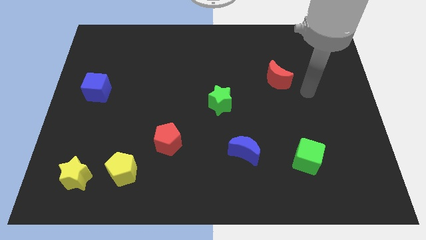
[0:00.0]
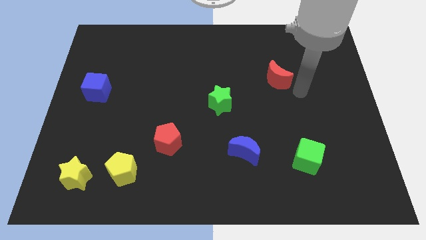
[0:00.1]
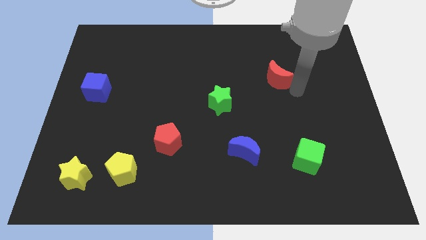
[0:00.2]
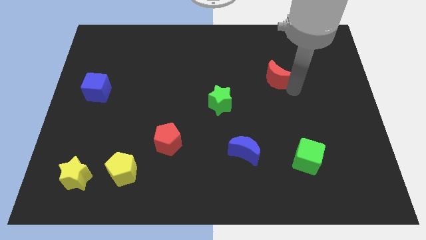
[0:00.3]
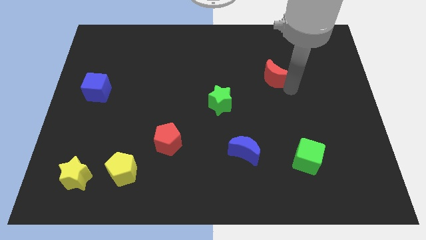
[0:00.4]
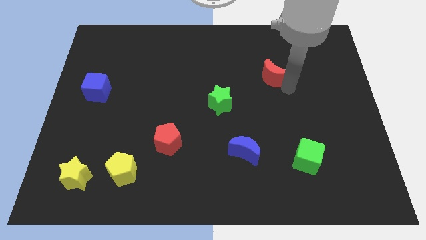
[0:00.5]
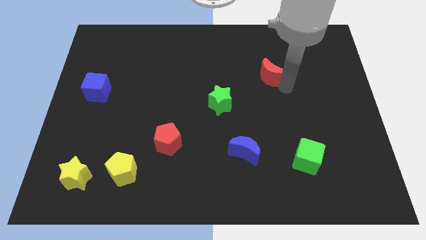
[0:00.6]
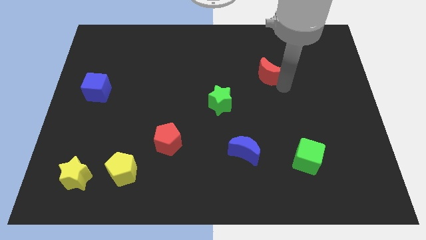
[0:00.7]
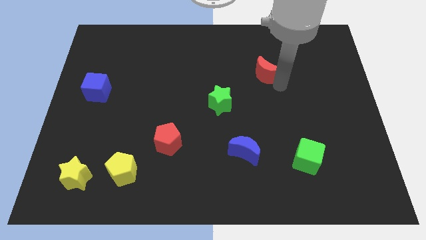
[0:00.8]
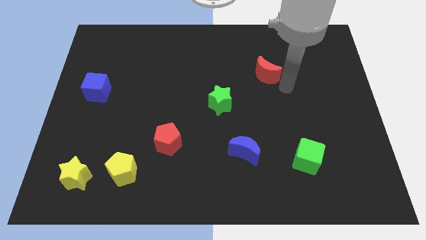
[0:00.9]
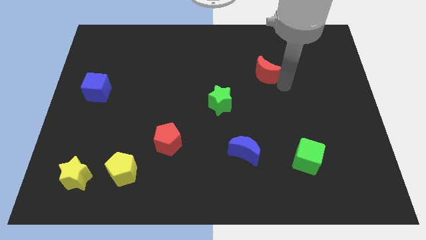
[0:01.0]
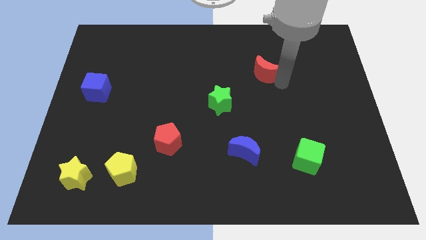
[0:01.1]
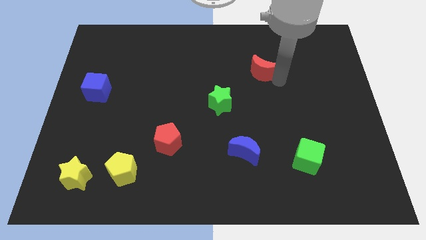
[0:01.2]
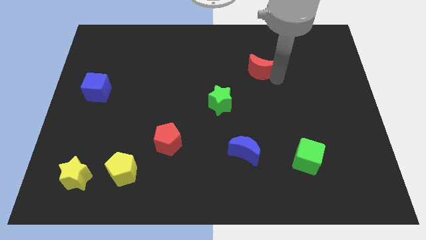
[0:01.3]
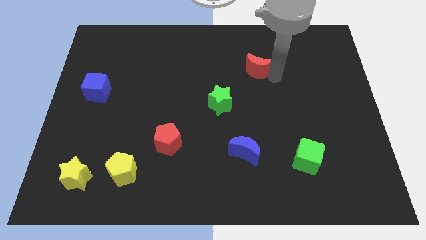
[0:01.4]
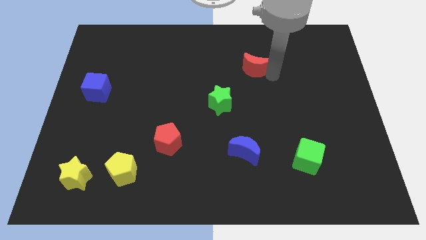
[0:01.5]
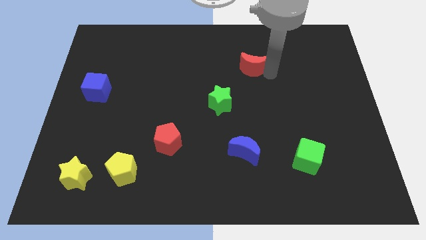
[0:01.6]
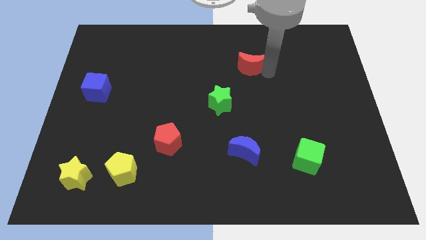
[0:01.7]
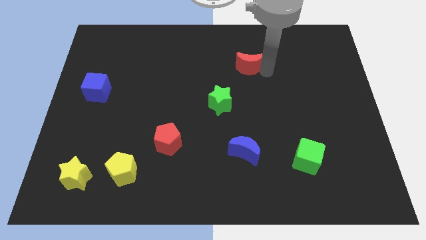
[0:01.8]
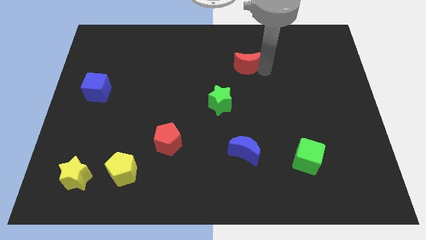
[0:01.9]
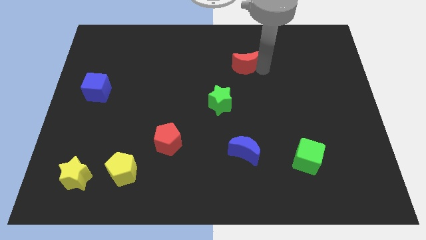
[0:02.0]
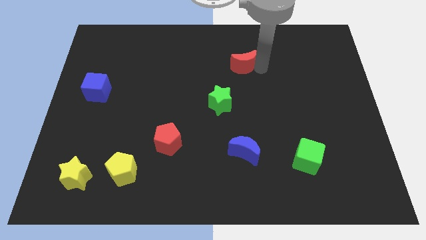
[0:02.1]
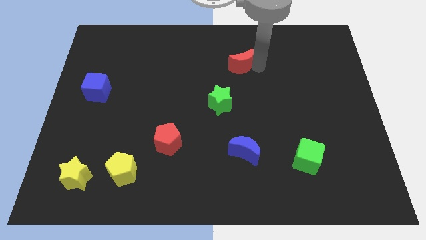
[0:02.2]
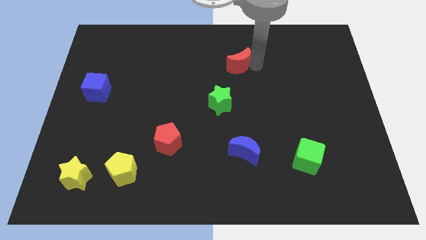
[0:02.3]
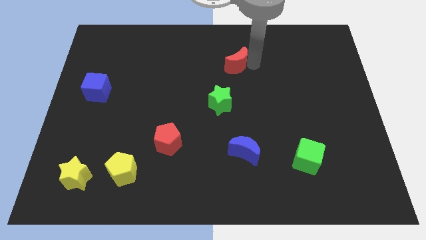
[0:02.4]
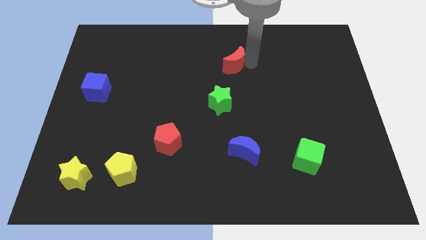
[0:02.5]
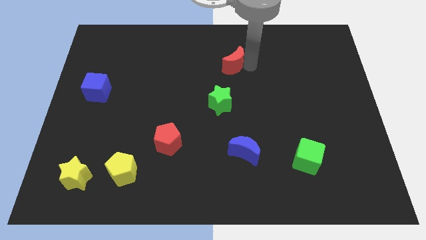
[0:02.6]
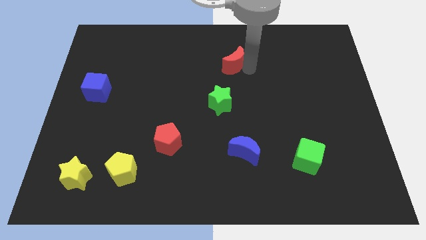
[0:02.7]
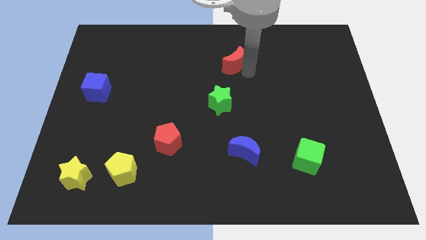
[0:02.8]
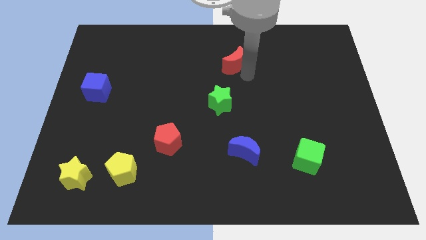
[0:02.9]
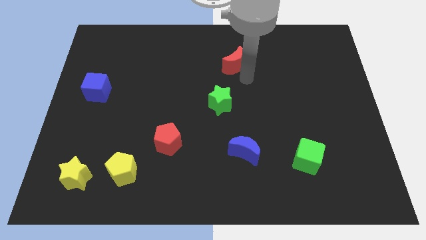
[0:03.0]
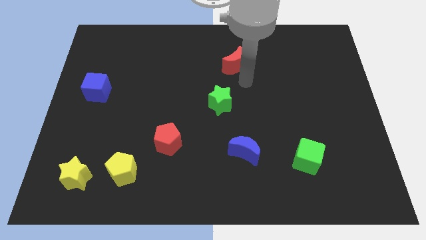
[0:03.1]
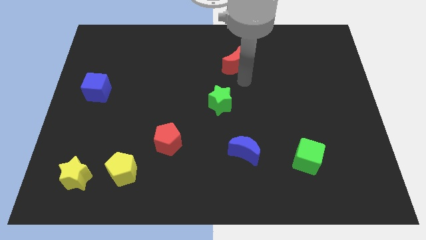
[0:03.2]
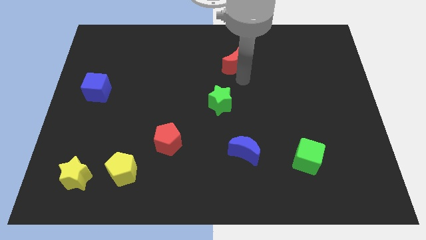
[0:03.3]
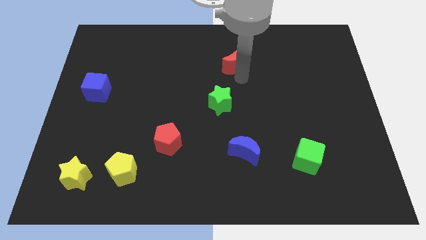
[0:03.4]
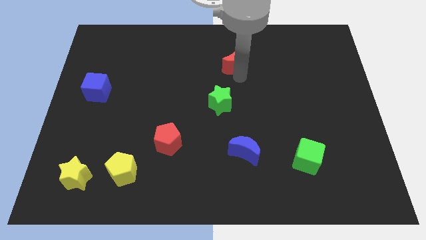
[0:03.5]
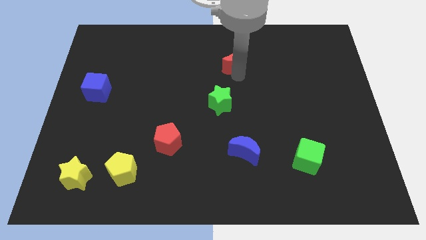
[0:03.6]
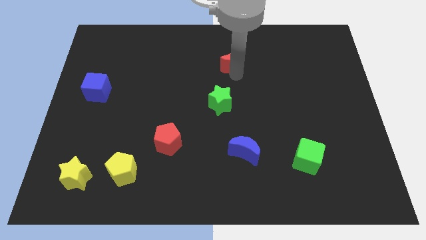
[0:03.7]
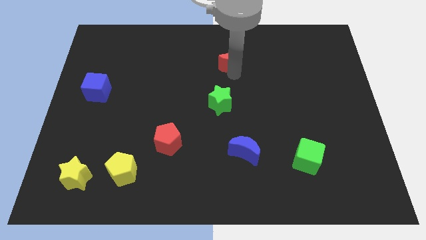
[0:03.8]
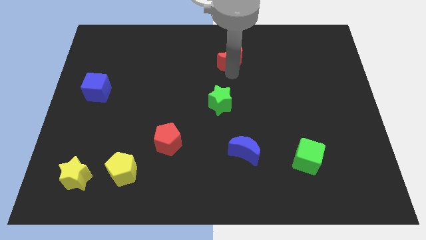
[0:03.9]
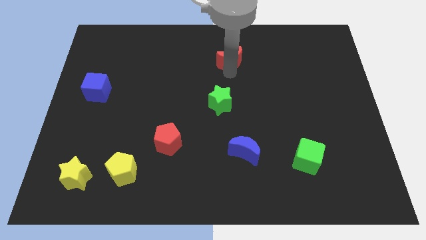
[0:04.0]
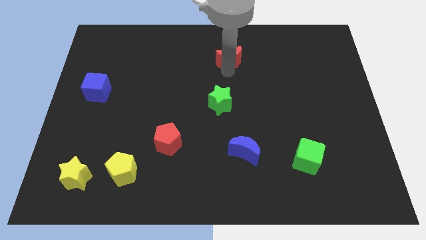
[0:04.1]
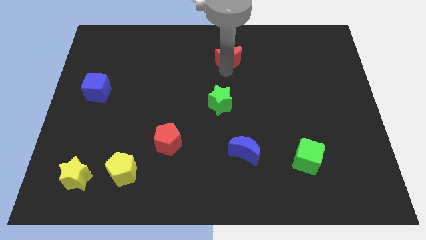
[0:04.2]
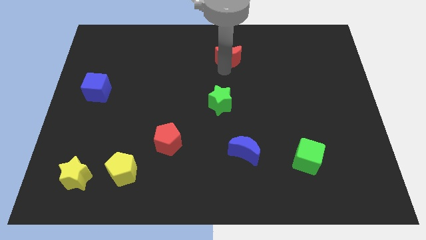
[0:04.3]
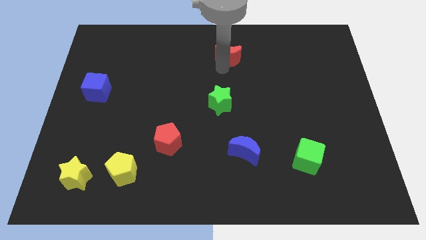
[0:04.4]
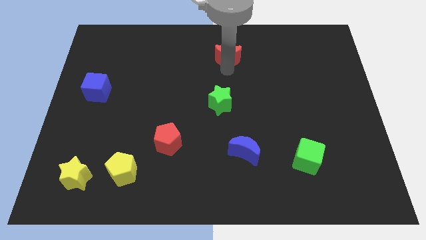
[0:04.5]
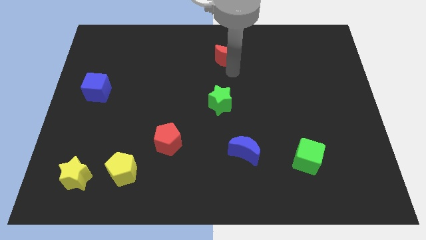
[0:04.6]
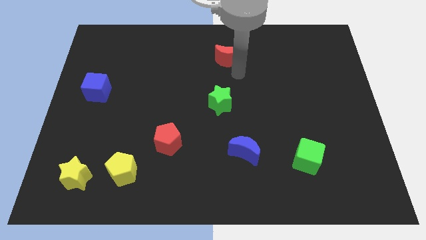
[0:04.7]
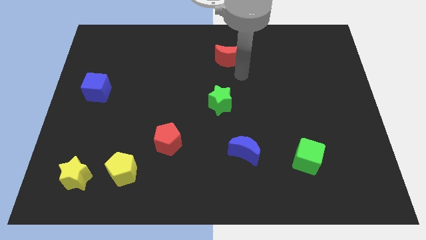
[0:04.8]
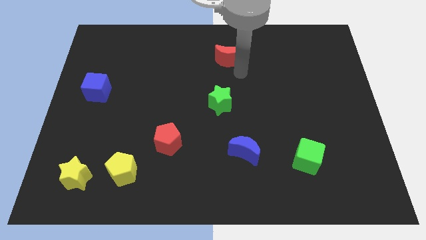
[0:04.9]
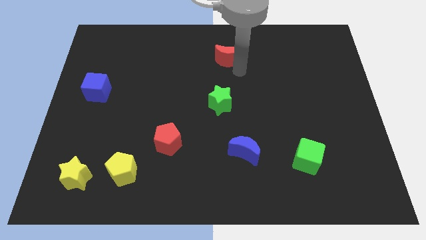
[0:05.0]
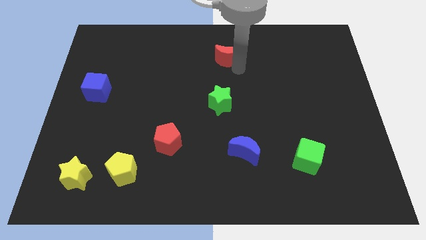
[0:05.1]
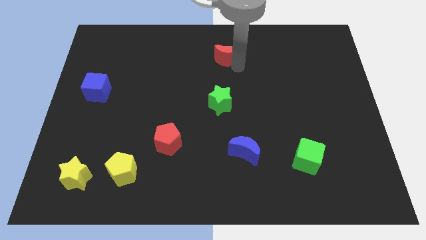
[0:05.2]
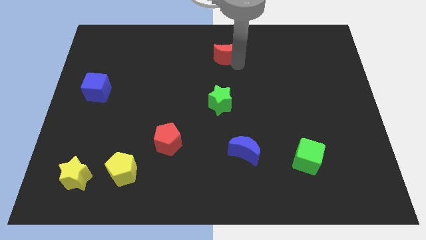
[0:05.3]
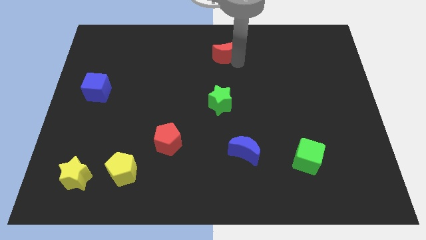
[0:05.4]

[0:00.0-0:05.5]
put the red moon to the top
